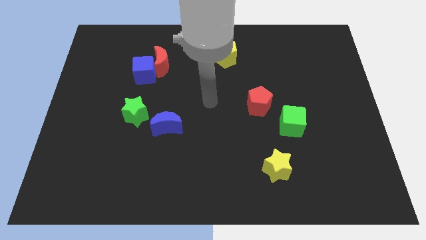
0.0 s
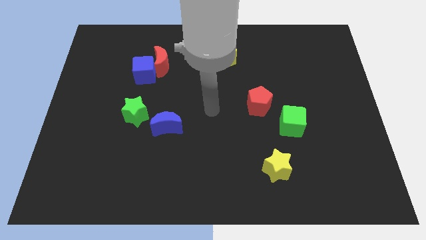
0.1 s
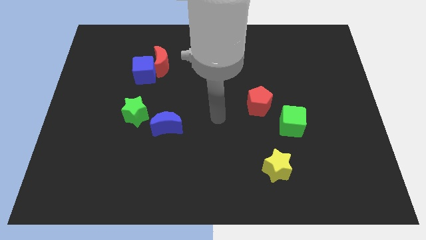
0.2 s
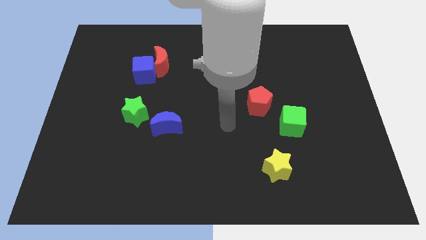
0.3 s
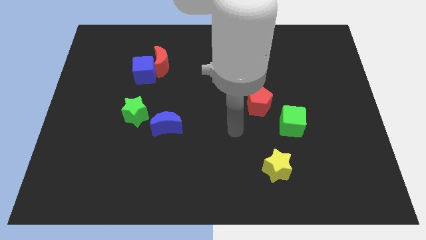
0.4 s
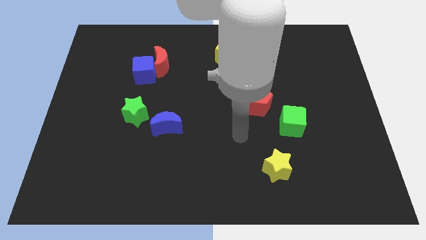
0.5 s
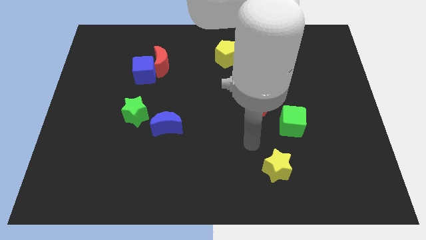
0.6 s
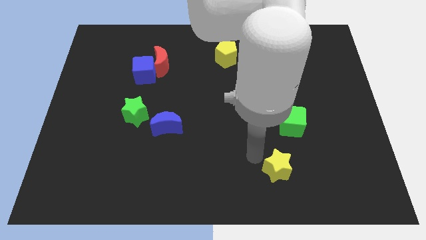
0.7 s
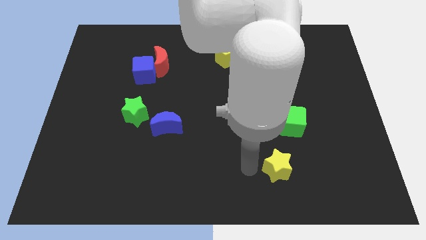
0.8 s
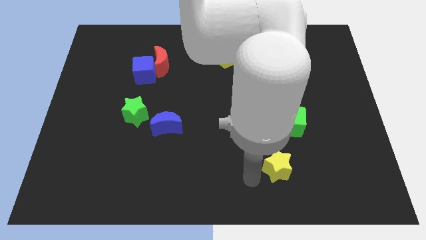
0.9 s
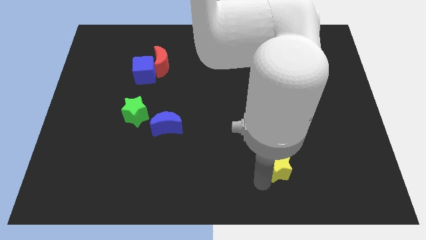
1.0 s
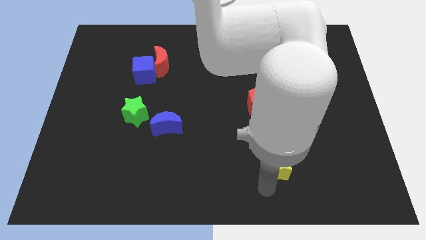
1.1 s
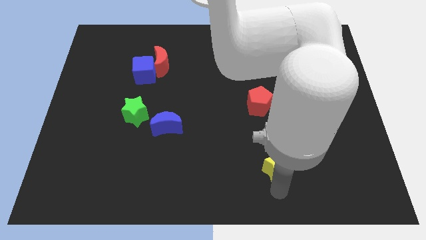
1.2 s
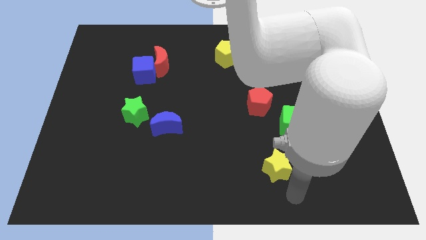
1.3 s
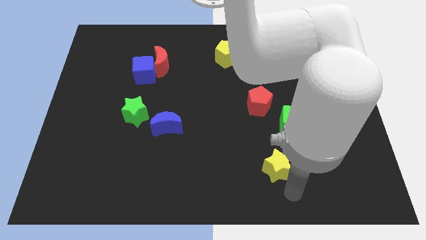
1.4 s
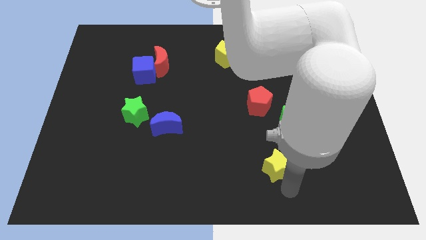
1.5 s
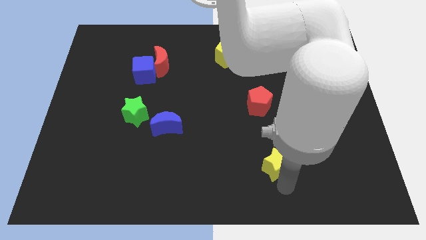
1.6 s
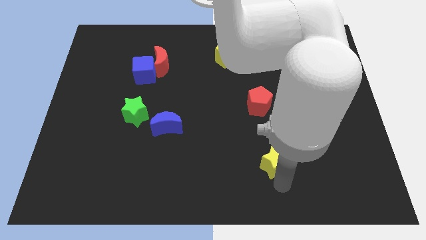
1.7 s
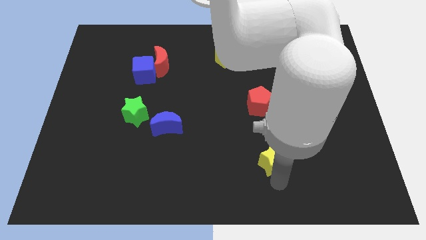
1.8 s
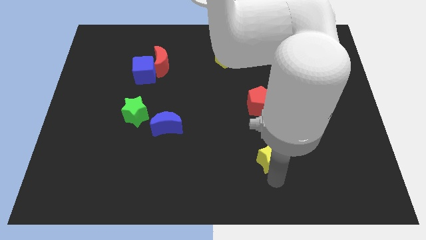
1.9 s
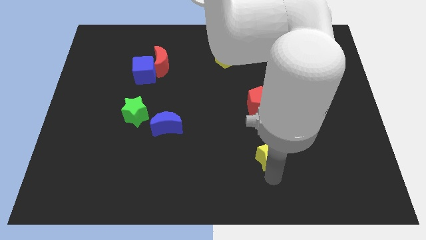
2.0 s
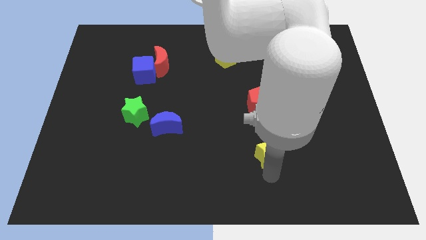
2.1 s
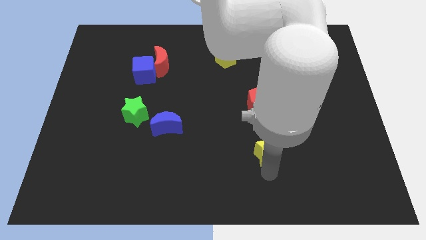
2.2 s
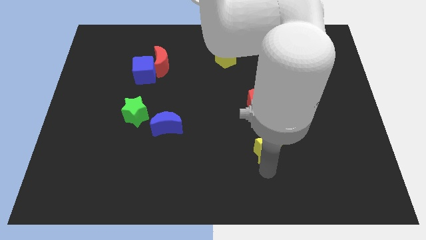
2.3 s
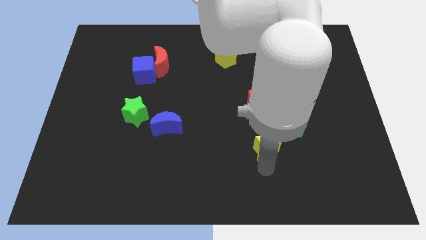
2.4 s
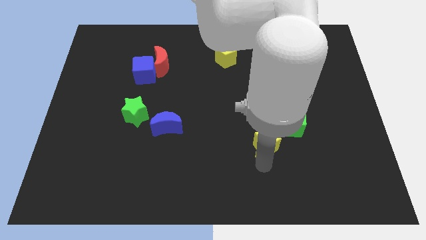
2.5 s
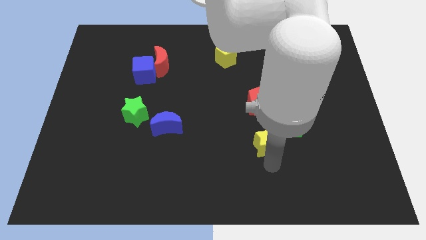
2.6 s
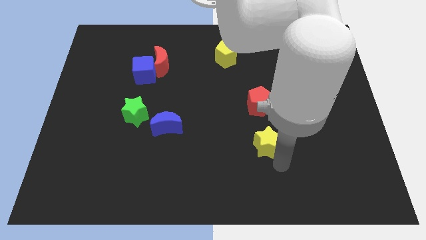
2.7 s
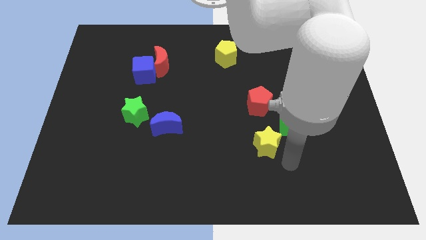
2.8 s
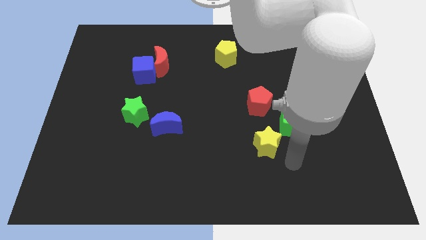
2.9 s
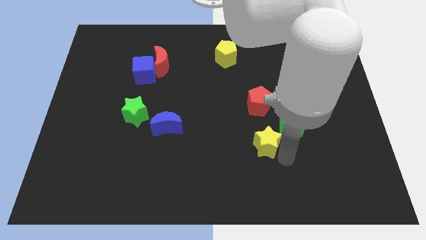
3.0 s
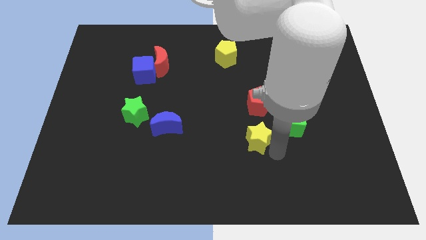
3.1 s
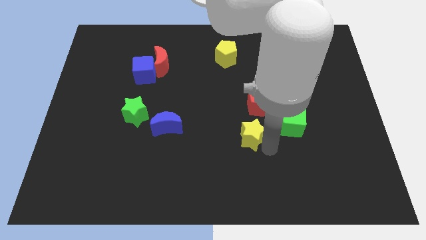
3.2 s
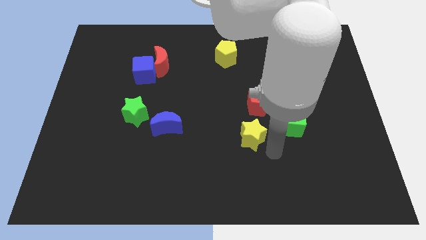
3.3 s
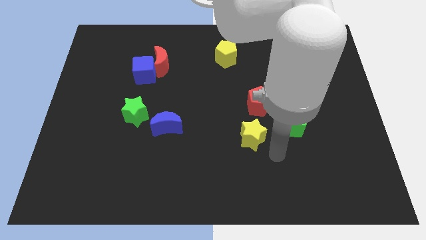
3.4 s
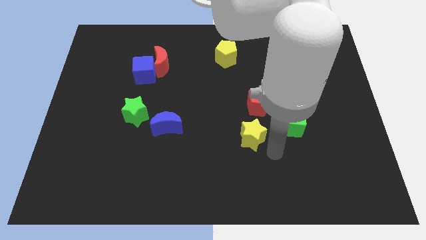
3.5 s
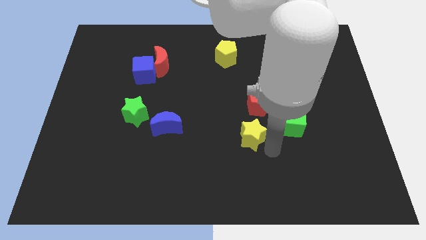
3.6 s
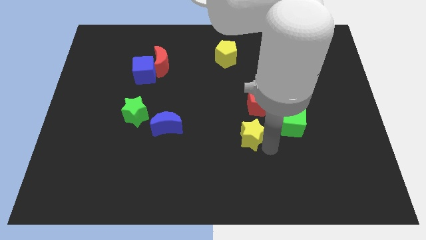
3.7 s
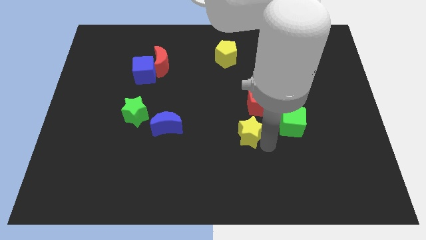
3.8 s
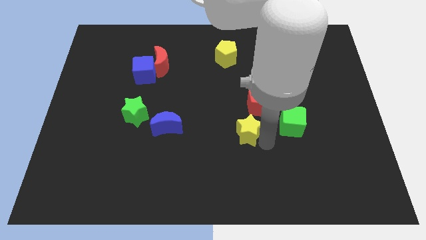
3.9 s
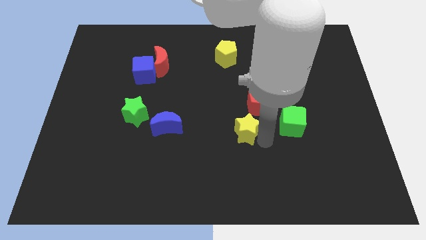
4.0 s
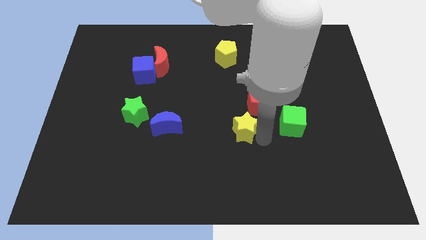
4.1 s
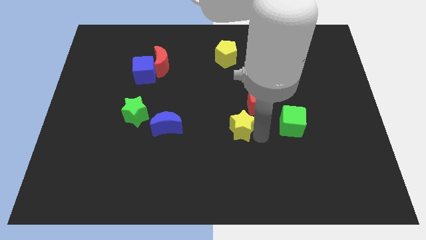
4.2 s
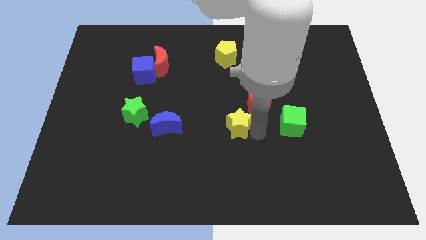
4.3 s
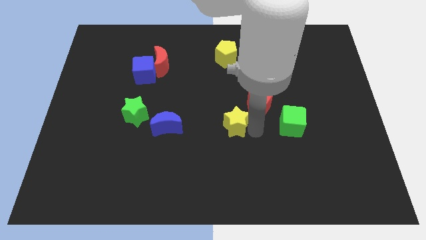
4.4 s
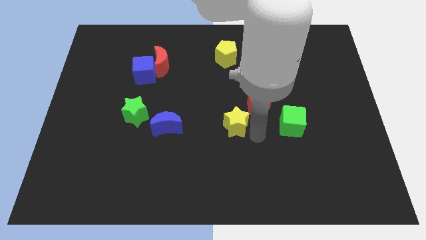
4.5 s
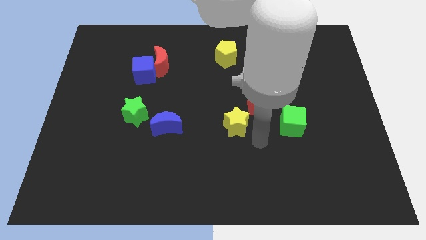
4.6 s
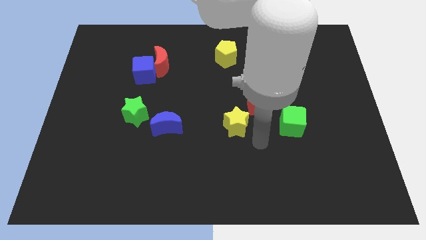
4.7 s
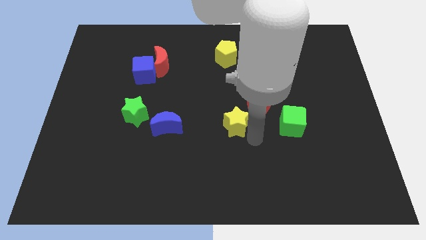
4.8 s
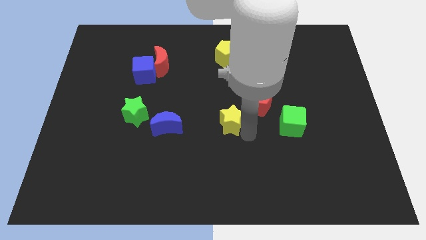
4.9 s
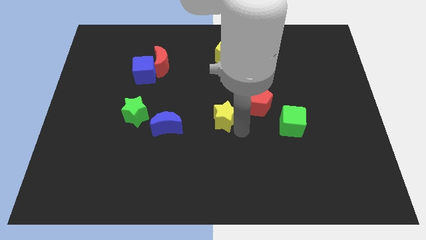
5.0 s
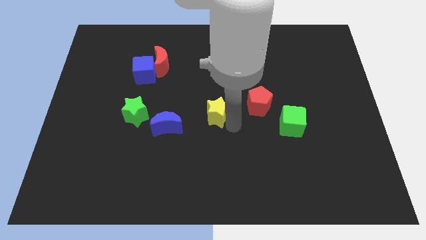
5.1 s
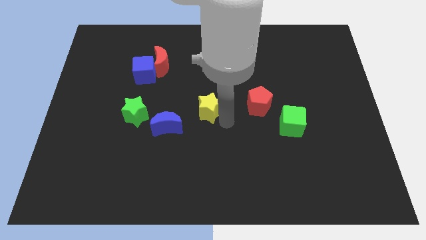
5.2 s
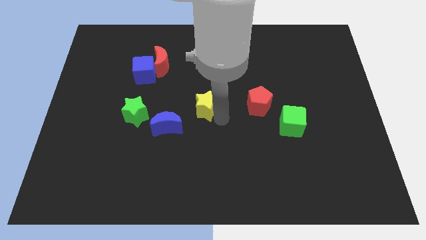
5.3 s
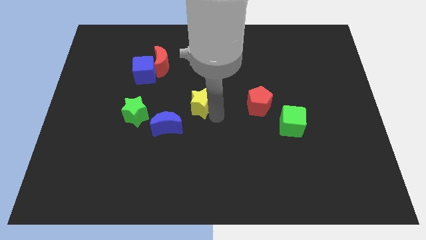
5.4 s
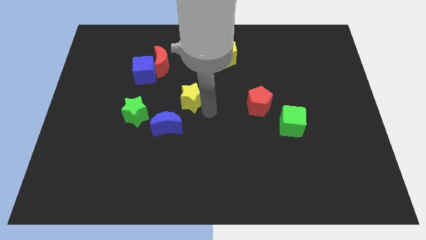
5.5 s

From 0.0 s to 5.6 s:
push the yellow star to the top side of the blue moon

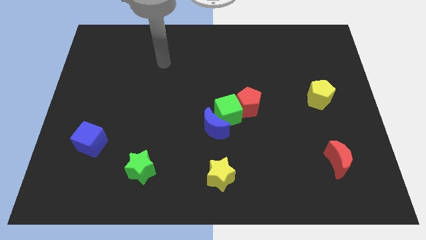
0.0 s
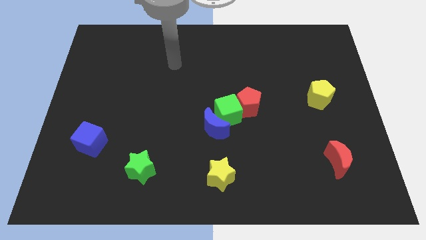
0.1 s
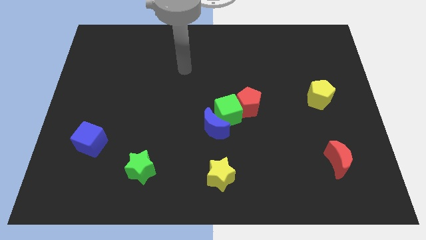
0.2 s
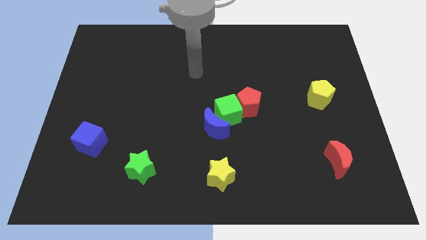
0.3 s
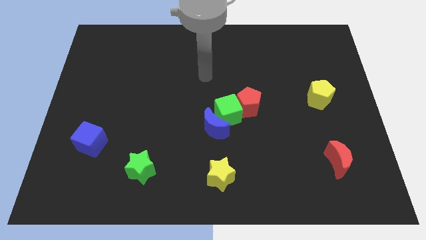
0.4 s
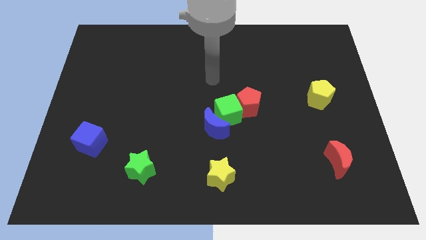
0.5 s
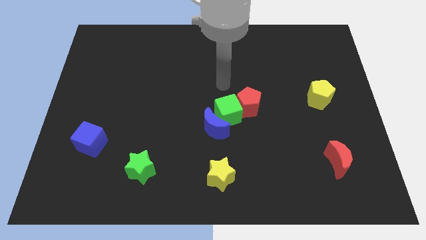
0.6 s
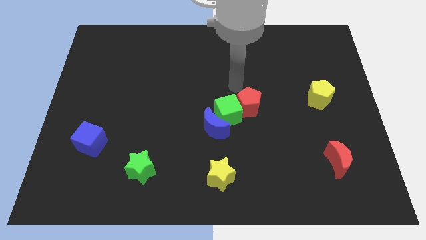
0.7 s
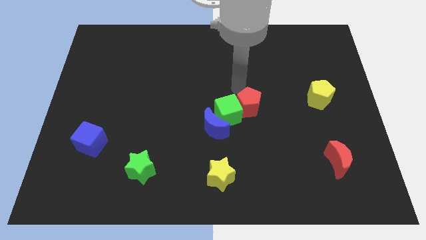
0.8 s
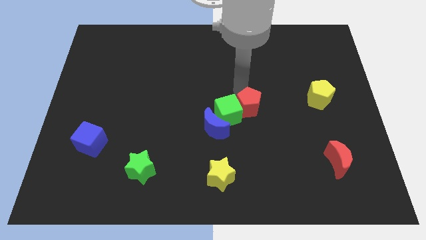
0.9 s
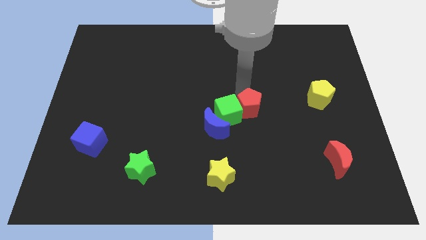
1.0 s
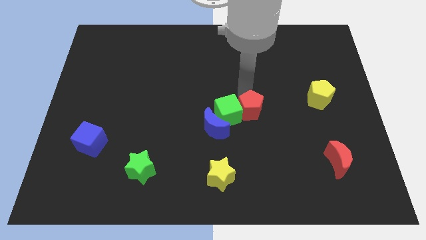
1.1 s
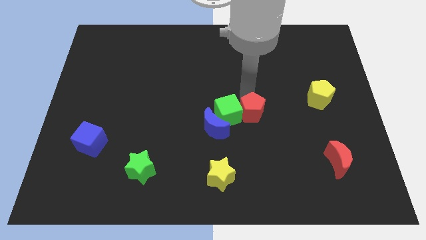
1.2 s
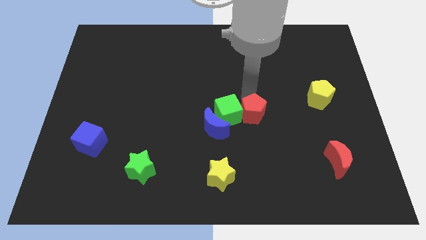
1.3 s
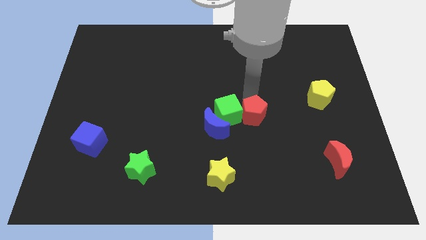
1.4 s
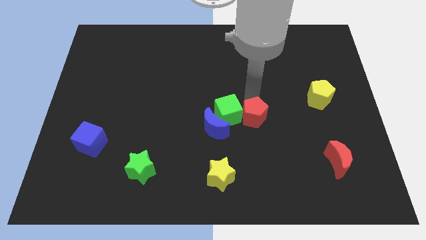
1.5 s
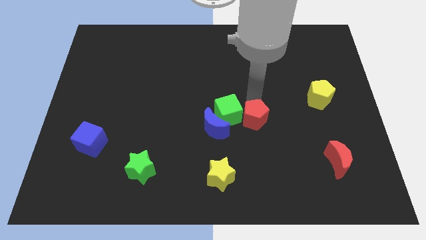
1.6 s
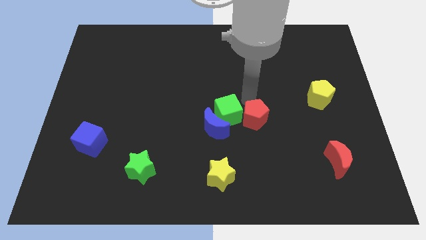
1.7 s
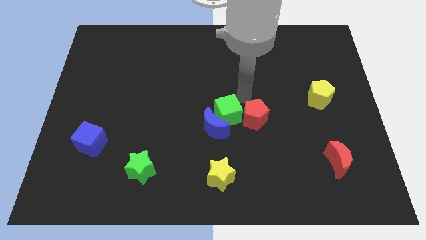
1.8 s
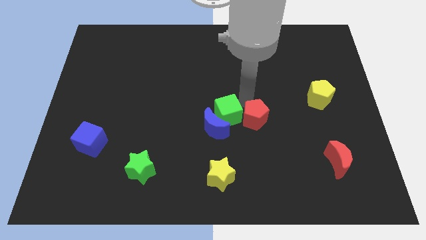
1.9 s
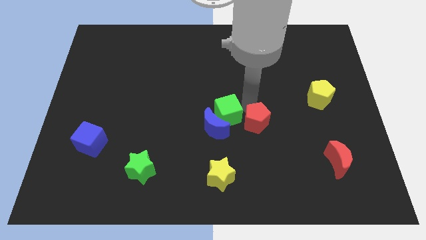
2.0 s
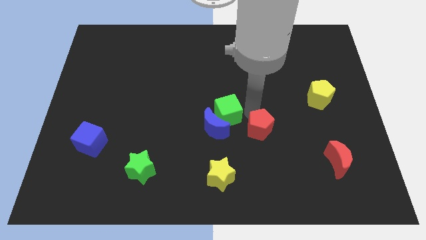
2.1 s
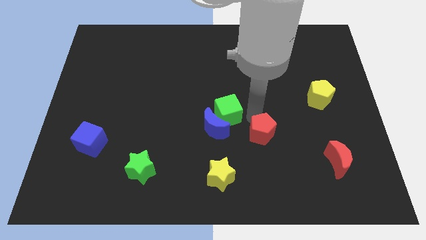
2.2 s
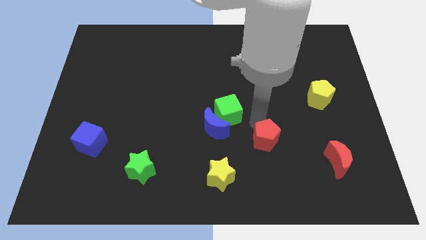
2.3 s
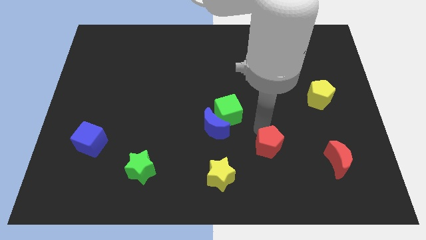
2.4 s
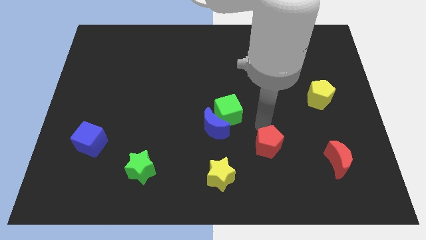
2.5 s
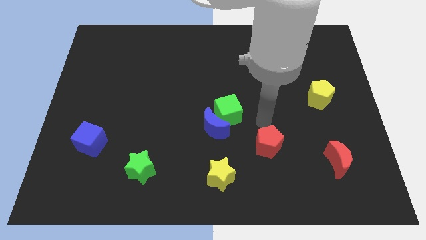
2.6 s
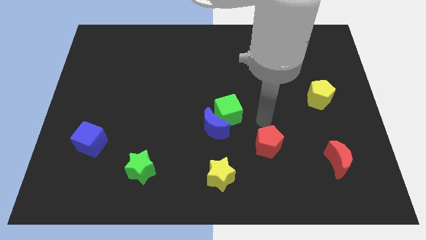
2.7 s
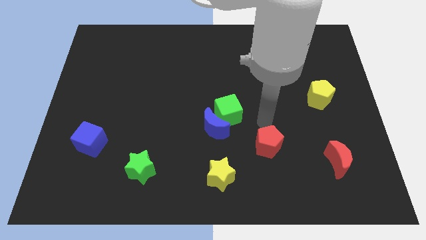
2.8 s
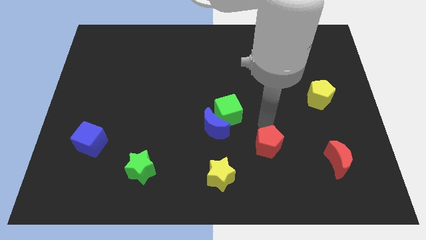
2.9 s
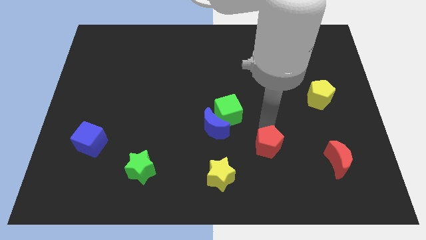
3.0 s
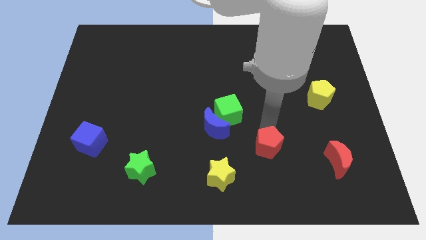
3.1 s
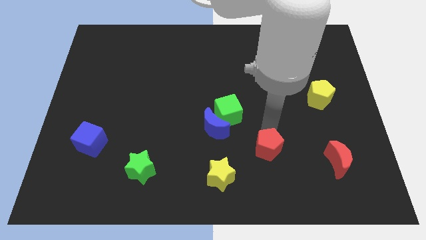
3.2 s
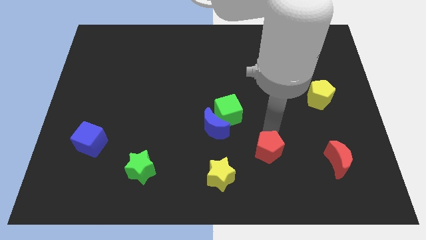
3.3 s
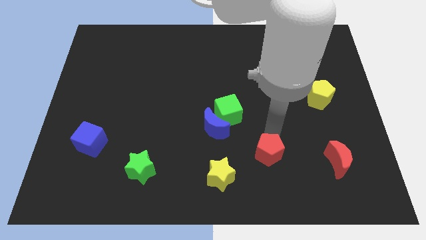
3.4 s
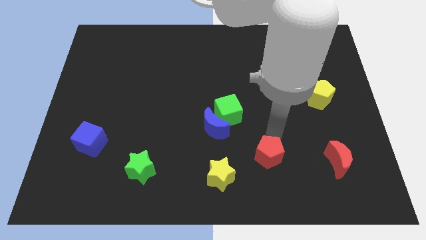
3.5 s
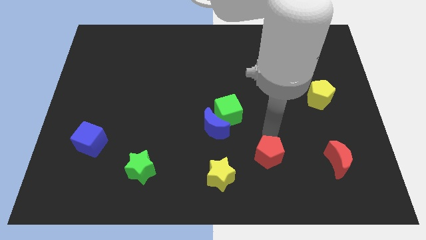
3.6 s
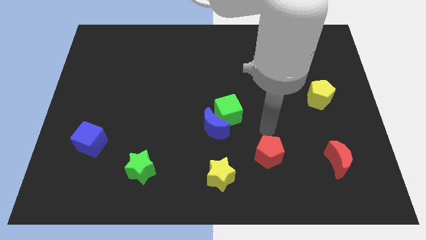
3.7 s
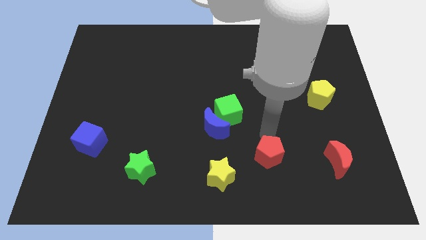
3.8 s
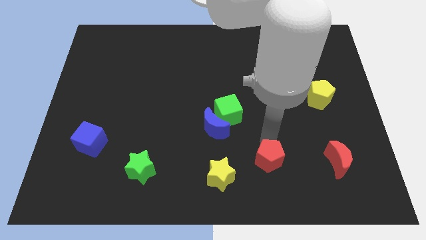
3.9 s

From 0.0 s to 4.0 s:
push the red pentagon right of the yellow star
